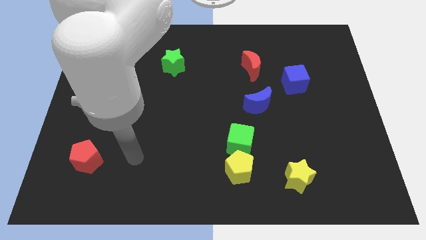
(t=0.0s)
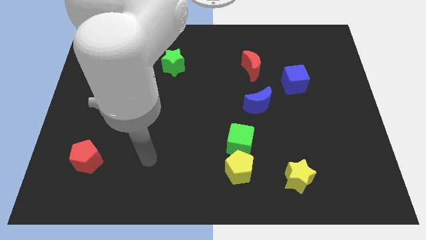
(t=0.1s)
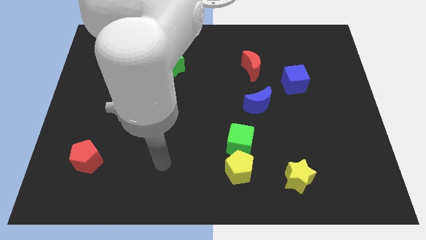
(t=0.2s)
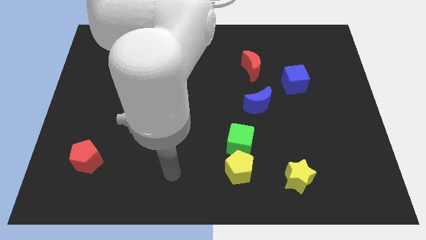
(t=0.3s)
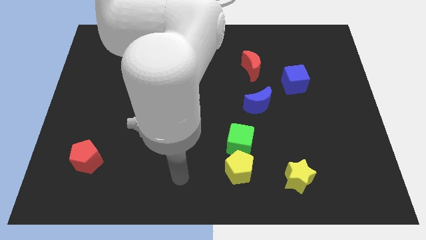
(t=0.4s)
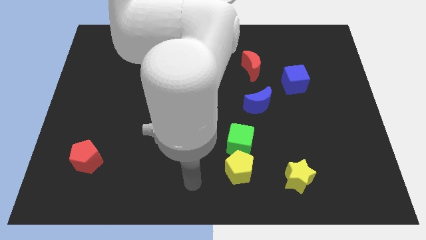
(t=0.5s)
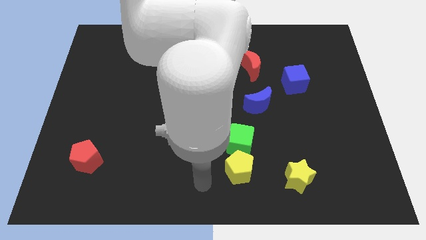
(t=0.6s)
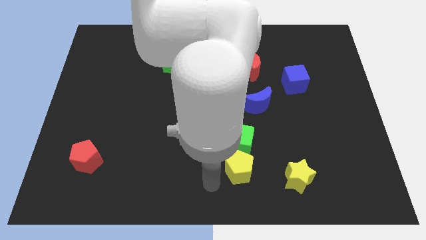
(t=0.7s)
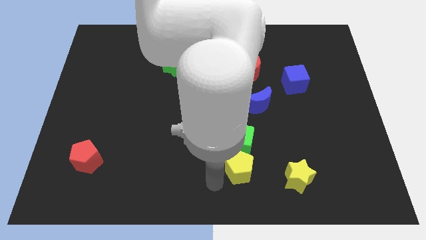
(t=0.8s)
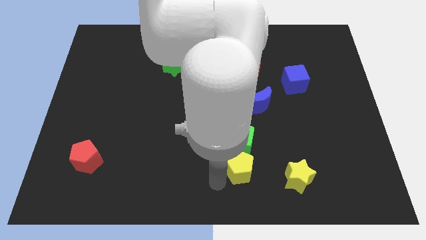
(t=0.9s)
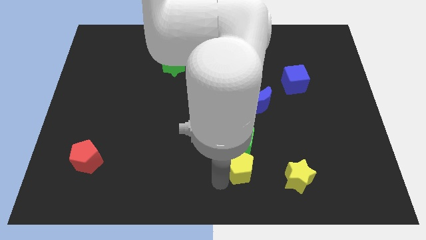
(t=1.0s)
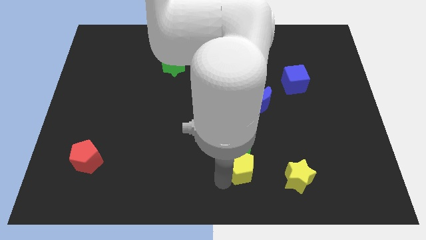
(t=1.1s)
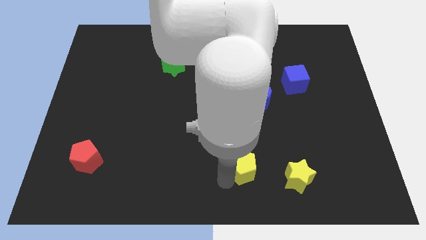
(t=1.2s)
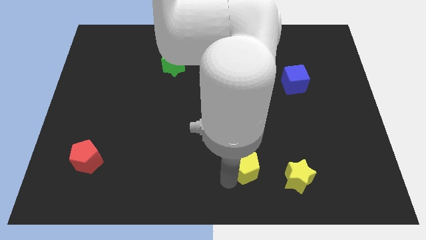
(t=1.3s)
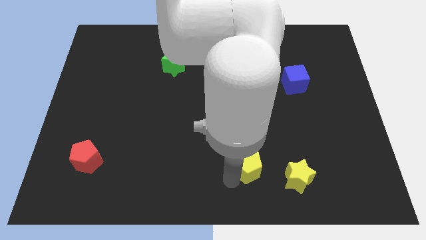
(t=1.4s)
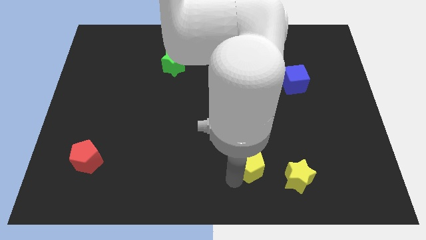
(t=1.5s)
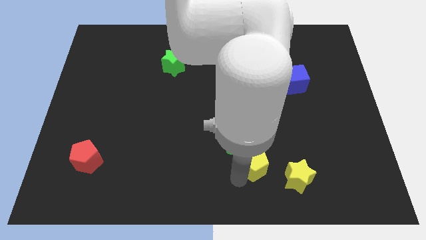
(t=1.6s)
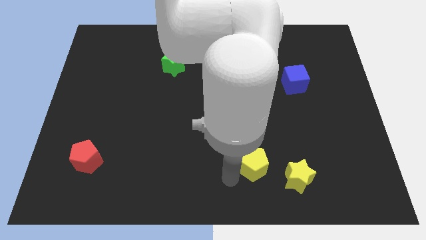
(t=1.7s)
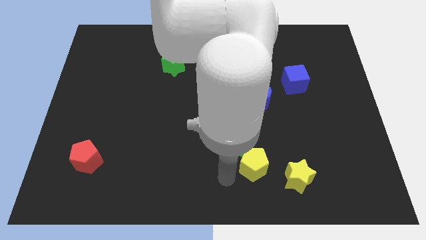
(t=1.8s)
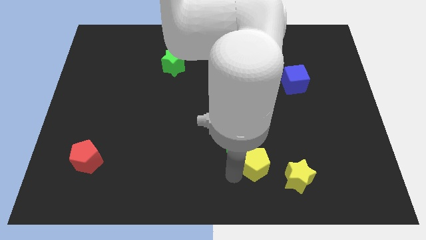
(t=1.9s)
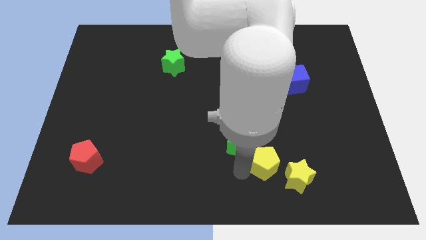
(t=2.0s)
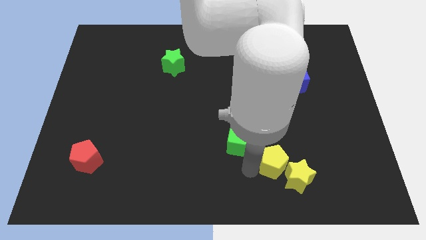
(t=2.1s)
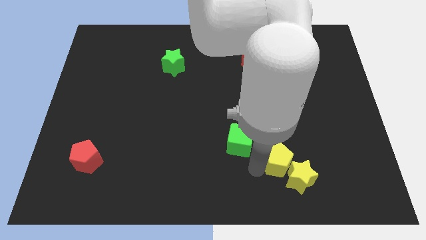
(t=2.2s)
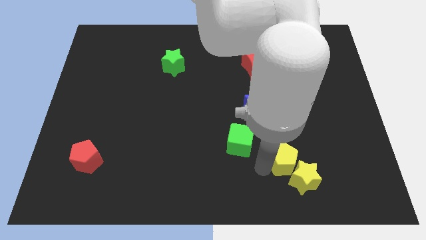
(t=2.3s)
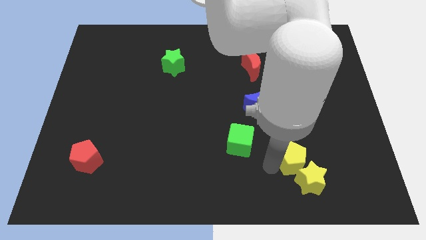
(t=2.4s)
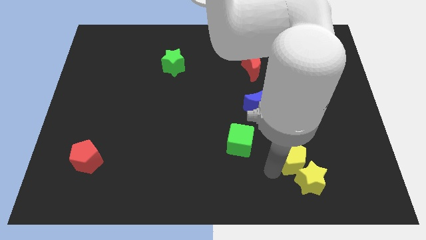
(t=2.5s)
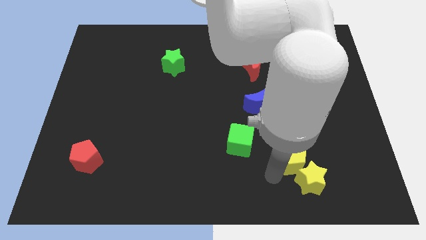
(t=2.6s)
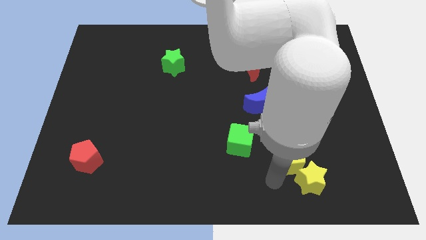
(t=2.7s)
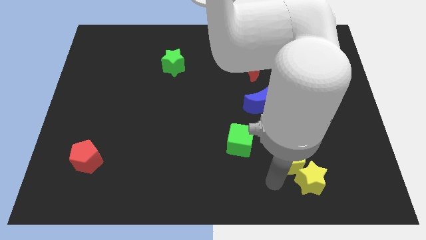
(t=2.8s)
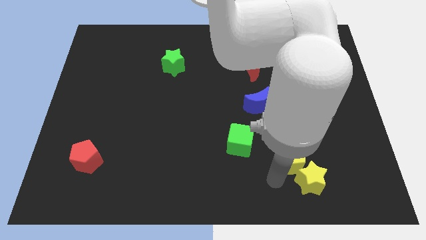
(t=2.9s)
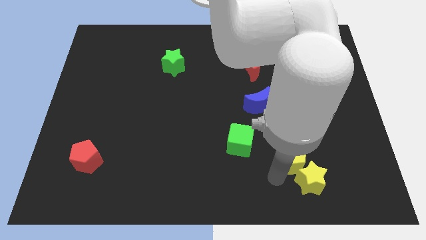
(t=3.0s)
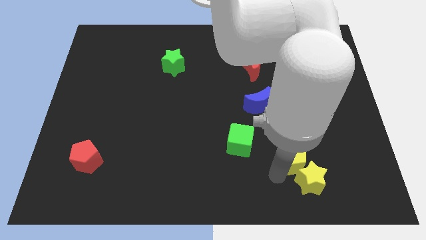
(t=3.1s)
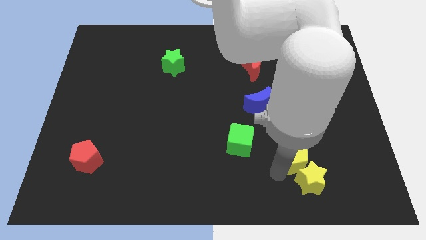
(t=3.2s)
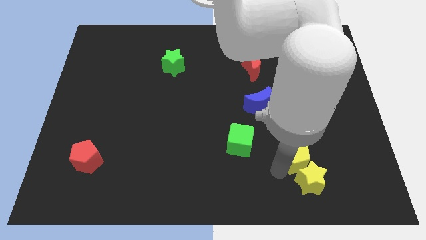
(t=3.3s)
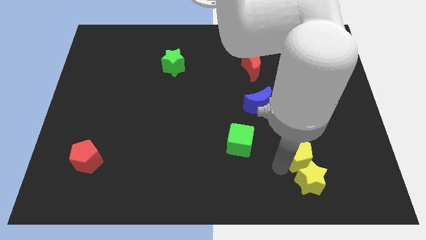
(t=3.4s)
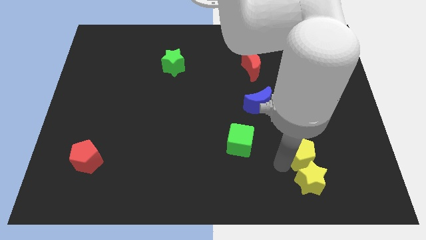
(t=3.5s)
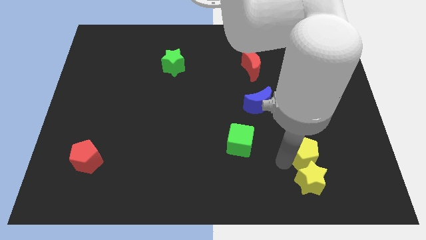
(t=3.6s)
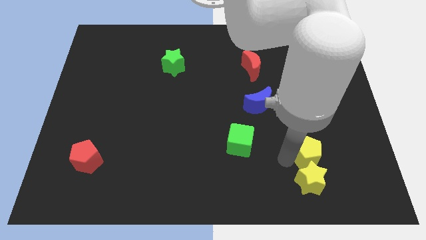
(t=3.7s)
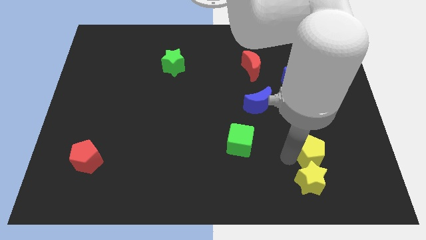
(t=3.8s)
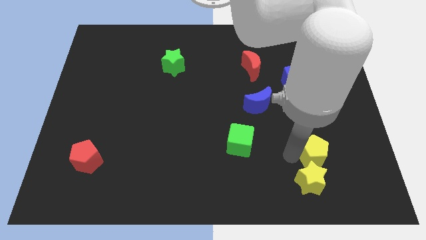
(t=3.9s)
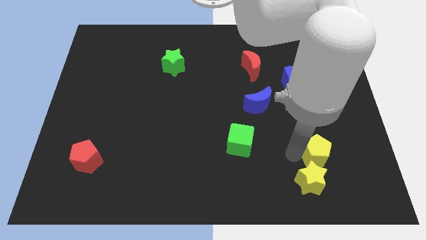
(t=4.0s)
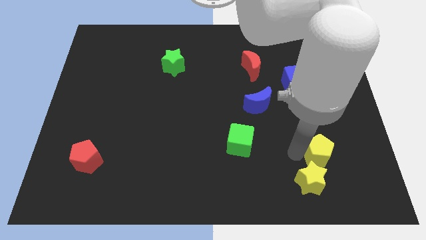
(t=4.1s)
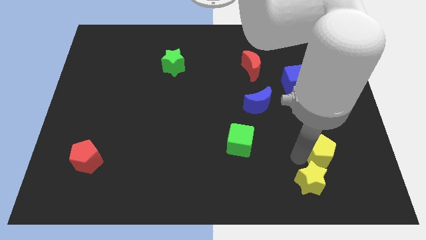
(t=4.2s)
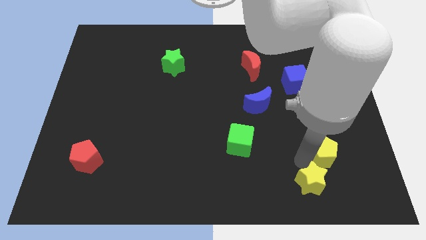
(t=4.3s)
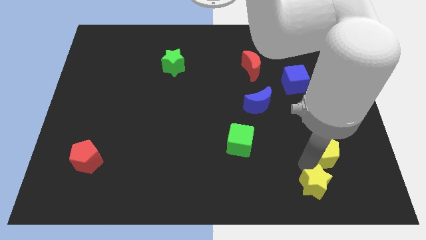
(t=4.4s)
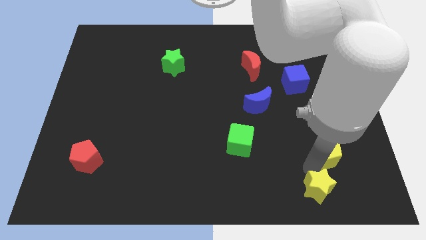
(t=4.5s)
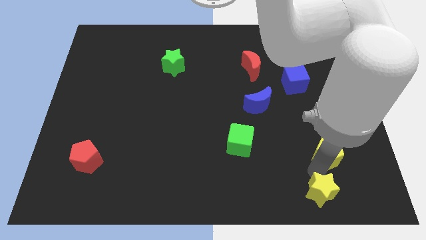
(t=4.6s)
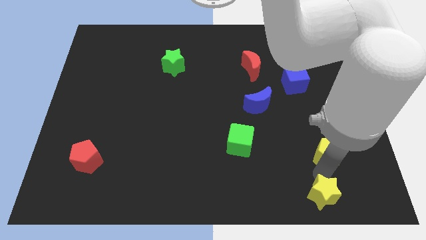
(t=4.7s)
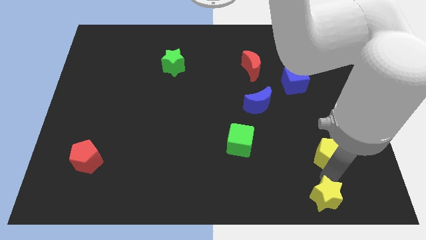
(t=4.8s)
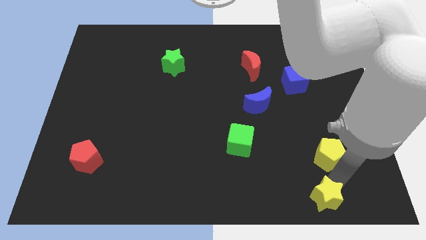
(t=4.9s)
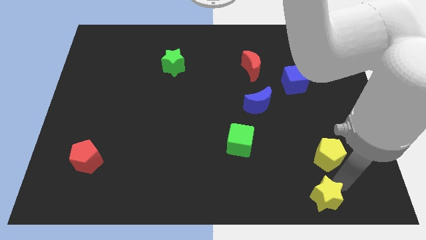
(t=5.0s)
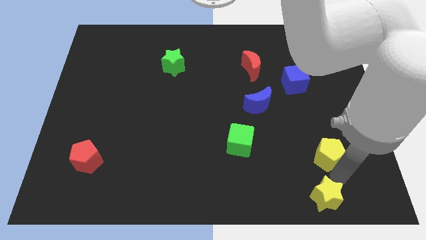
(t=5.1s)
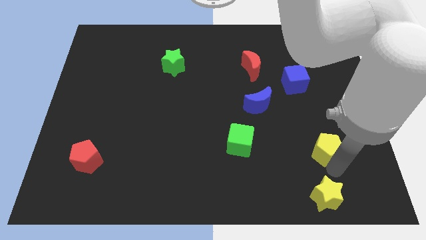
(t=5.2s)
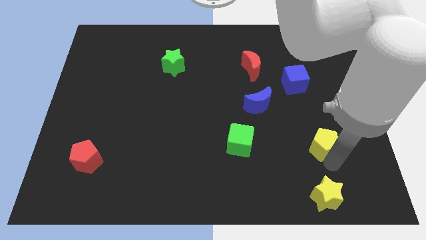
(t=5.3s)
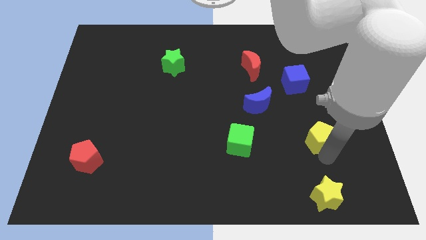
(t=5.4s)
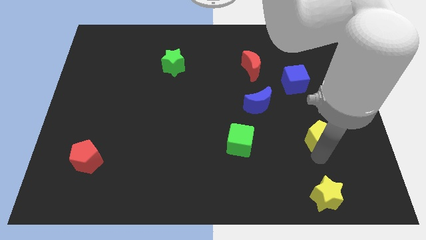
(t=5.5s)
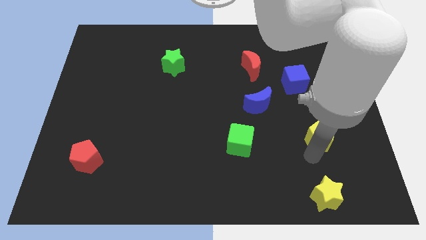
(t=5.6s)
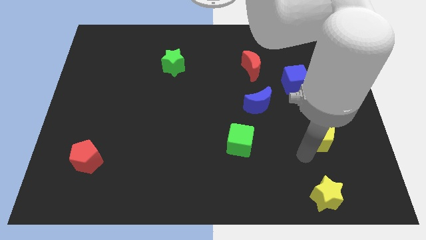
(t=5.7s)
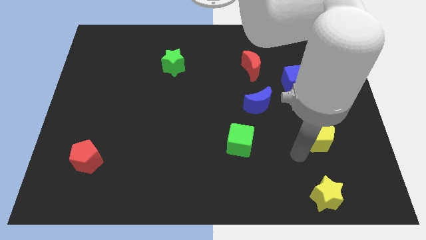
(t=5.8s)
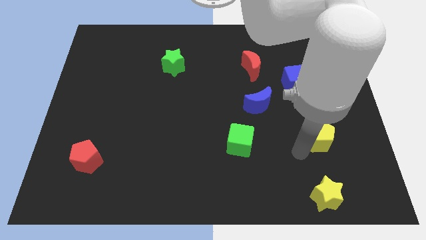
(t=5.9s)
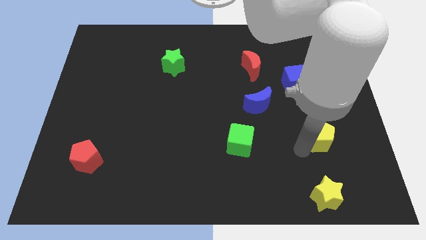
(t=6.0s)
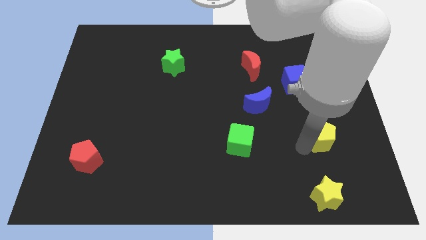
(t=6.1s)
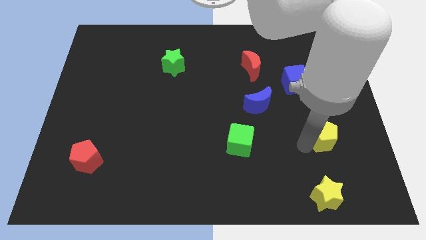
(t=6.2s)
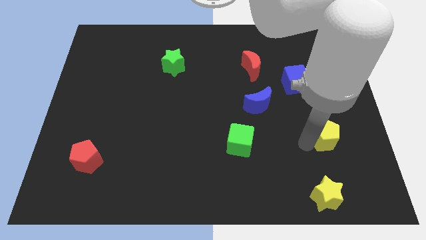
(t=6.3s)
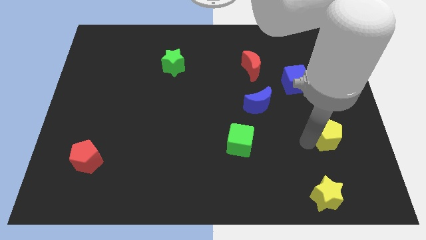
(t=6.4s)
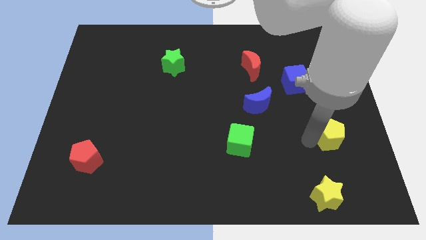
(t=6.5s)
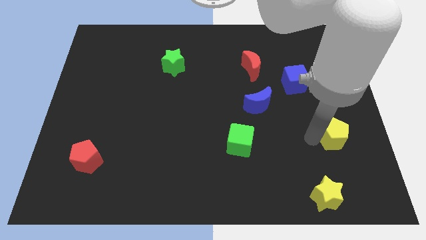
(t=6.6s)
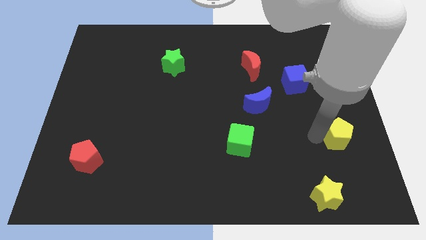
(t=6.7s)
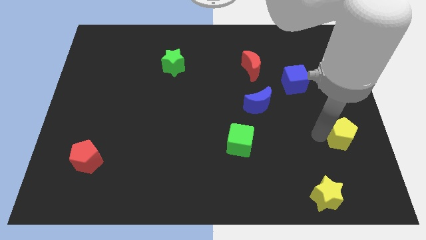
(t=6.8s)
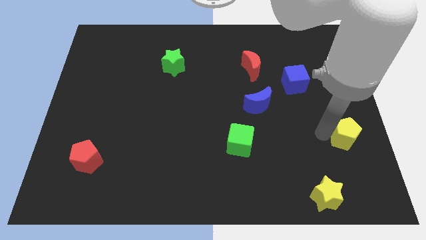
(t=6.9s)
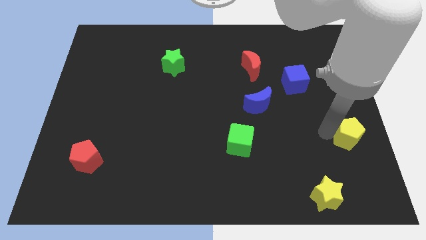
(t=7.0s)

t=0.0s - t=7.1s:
push the yellow pentagon to the center right
